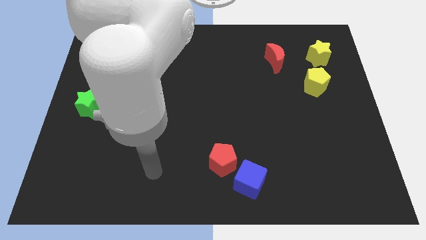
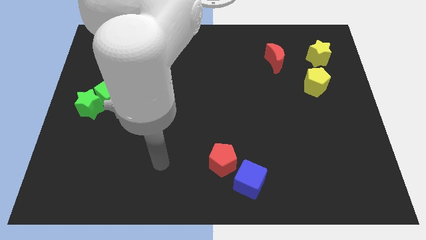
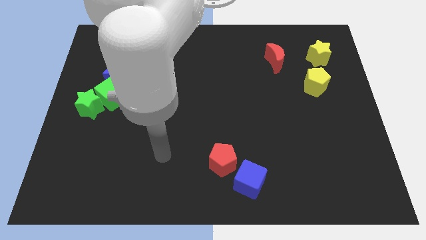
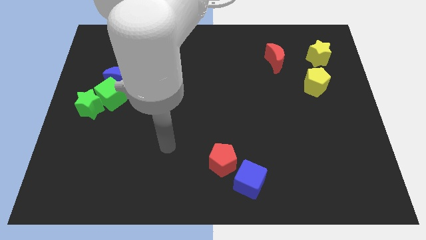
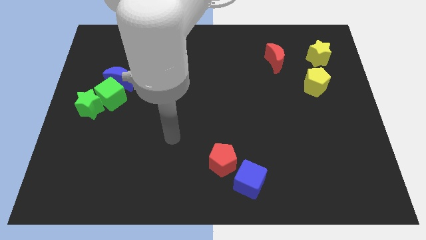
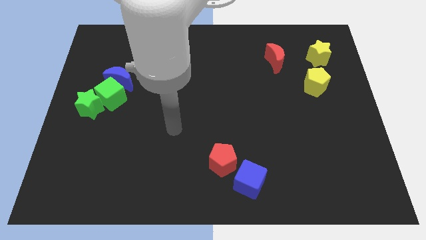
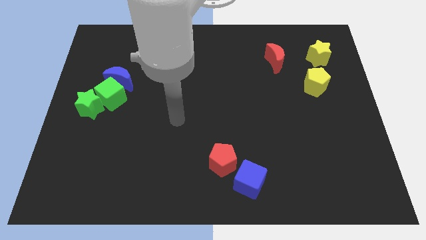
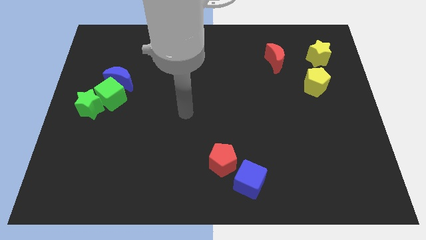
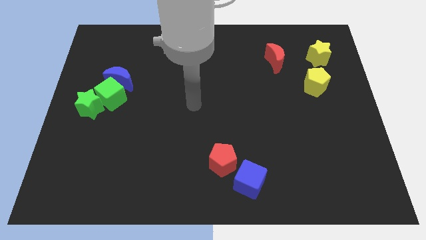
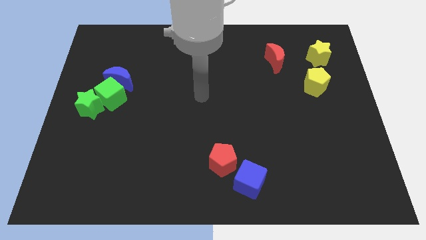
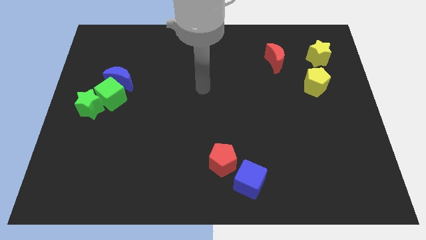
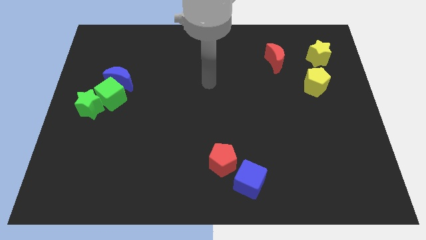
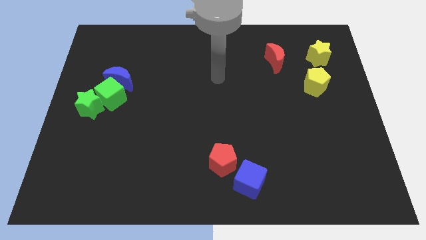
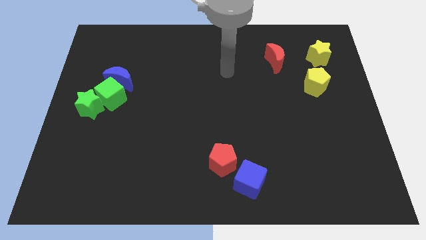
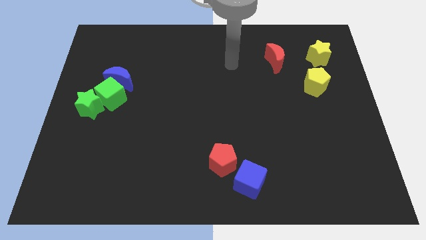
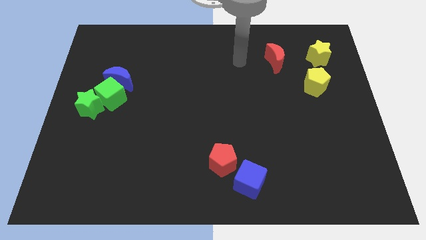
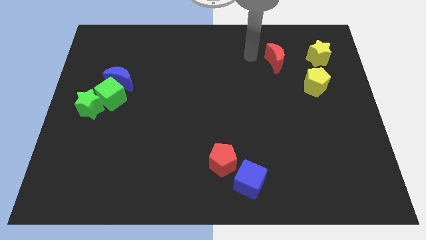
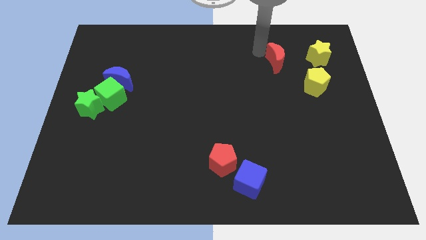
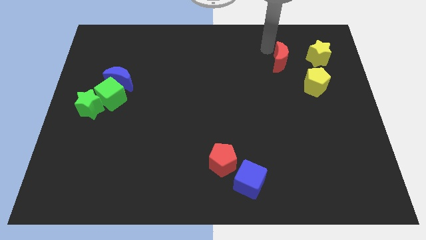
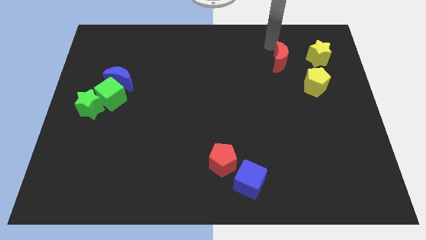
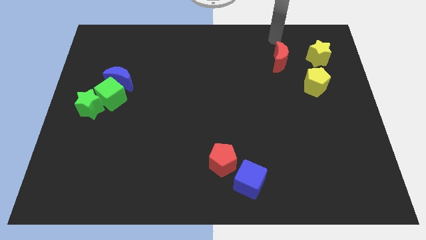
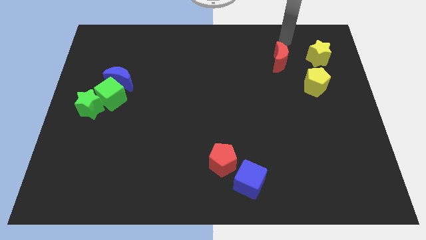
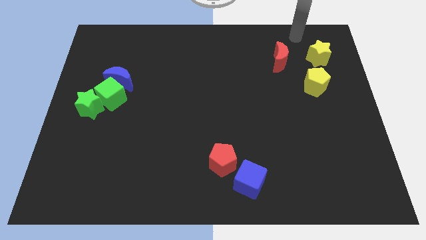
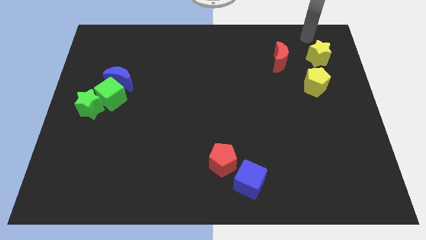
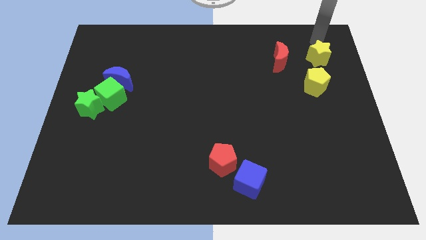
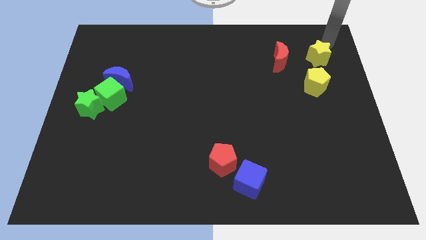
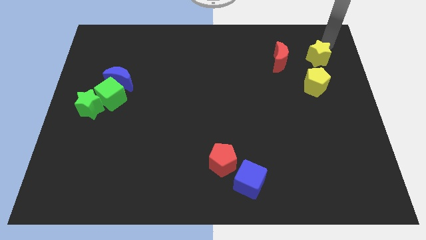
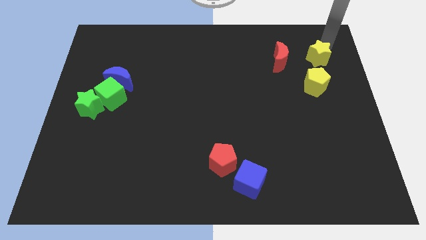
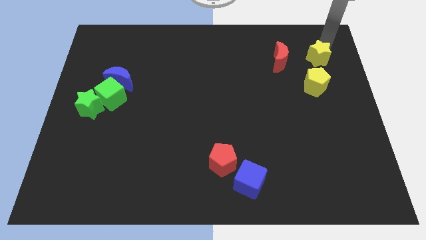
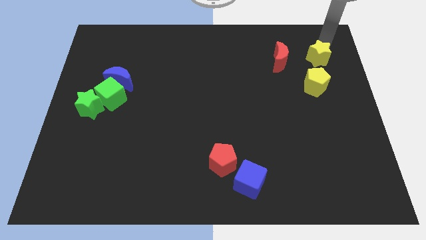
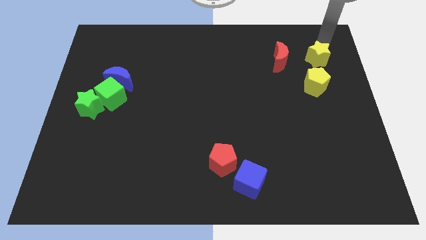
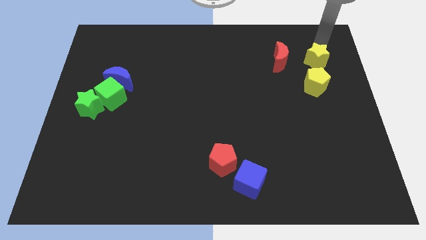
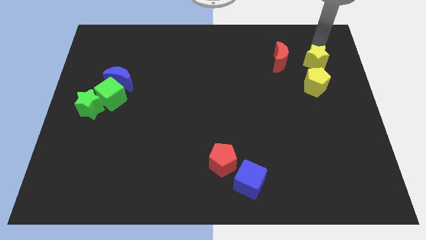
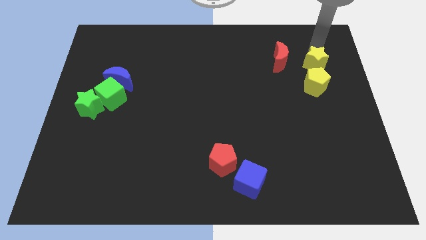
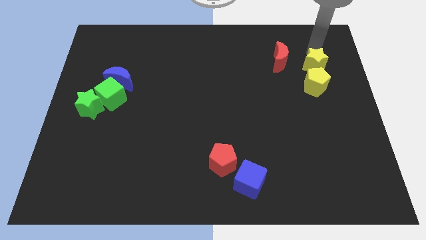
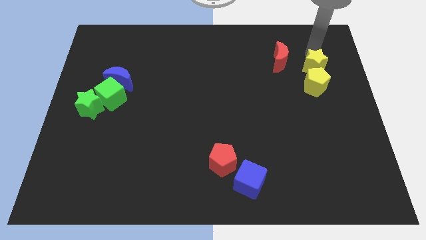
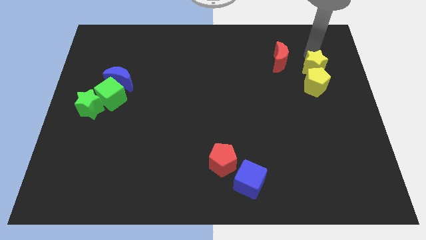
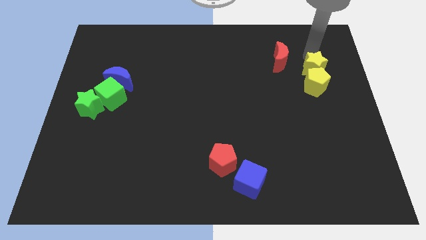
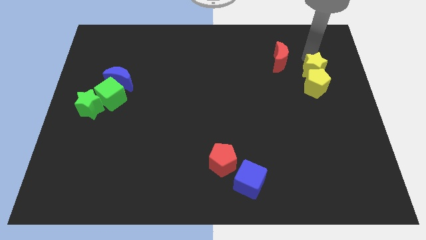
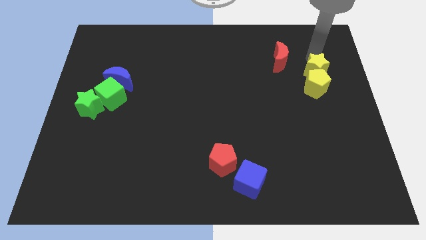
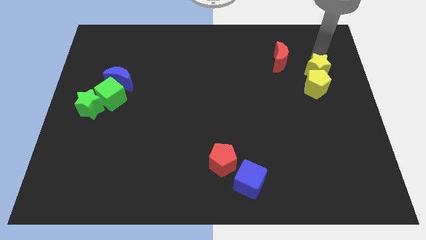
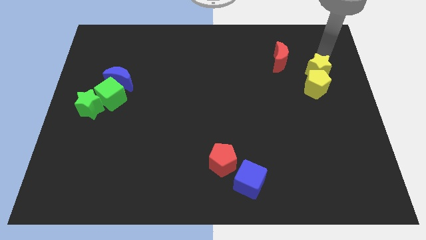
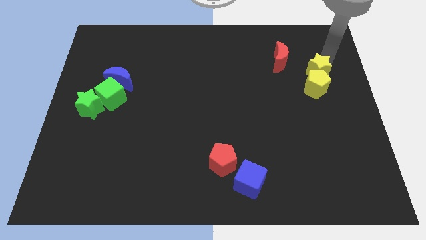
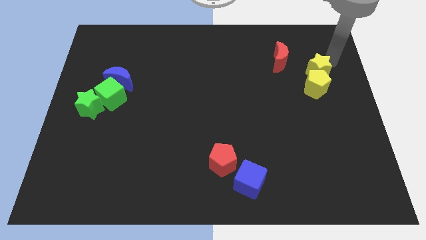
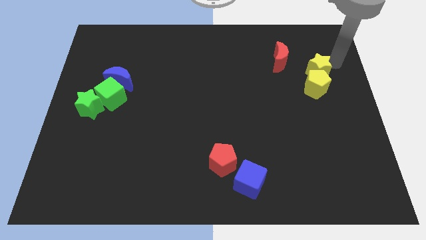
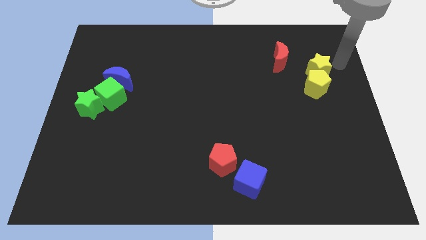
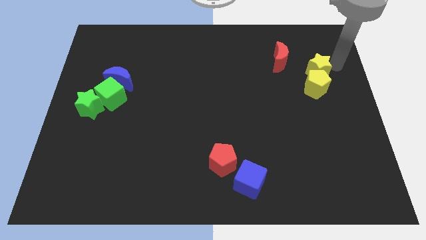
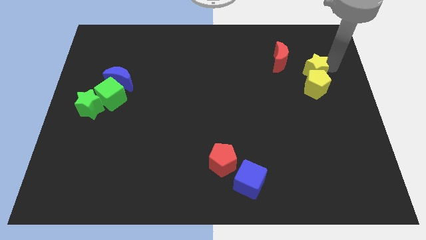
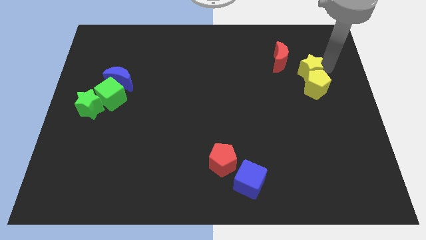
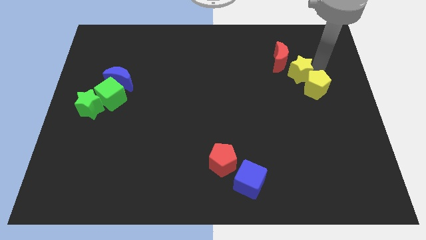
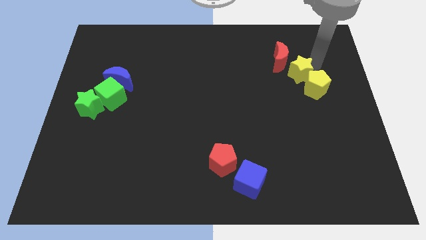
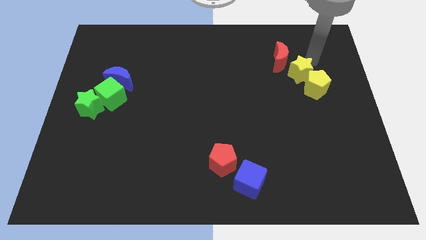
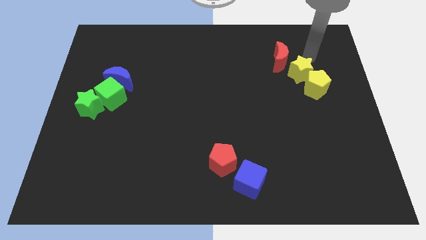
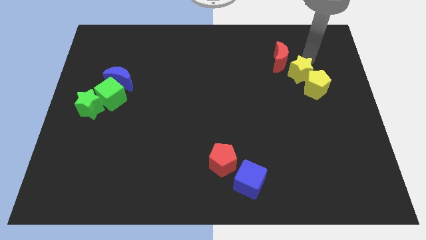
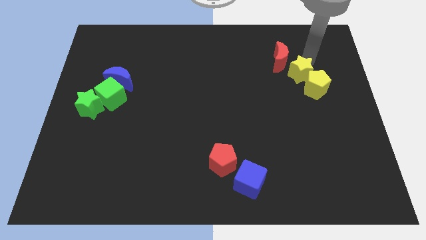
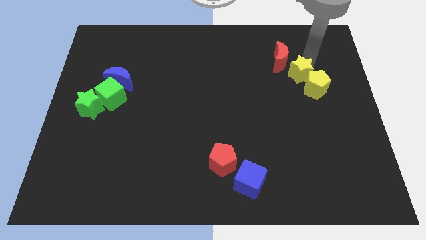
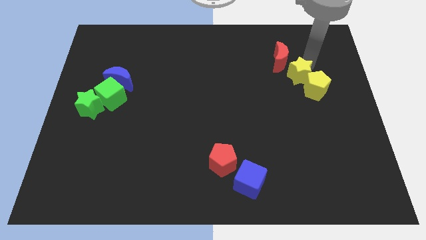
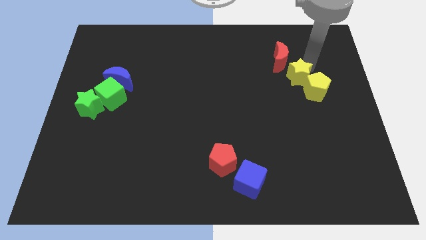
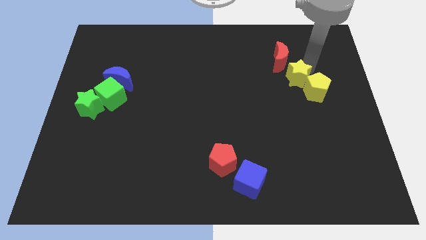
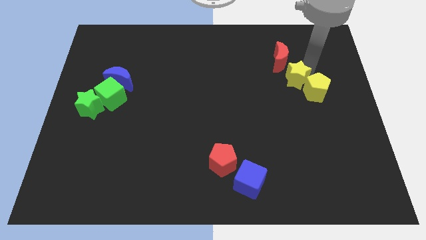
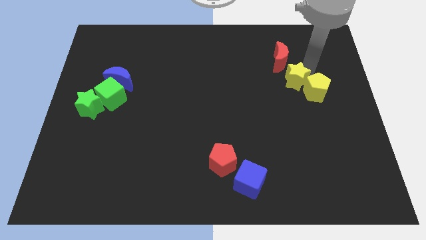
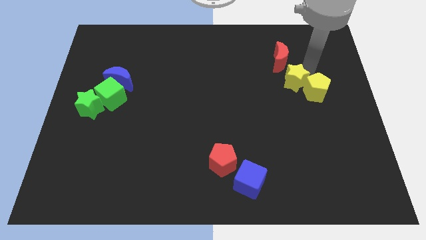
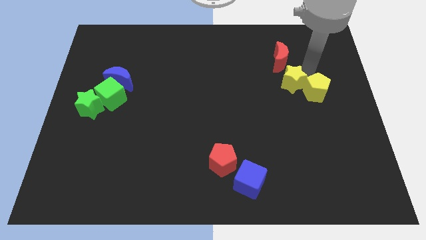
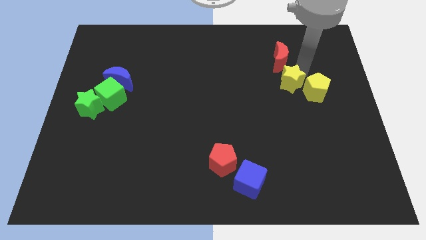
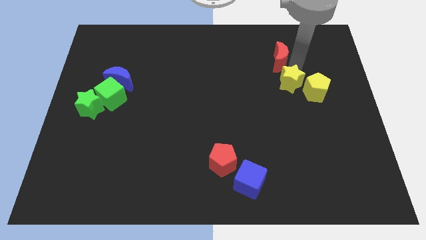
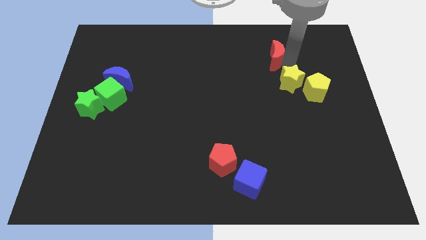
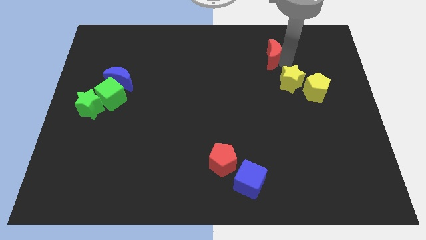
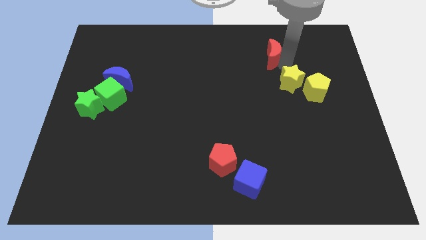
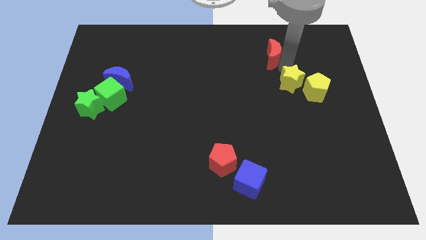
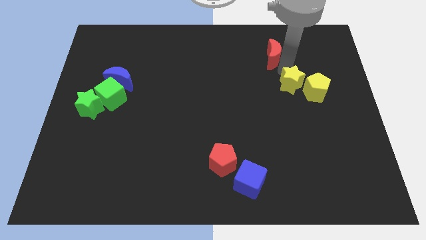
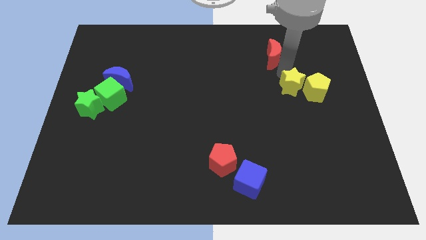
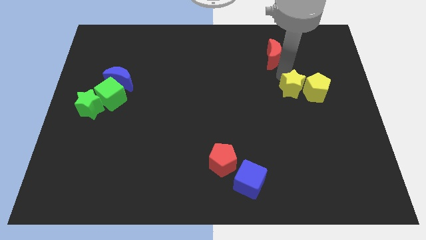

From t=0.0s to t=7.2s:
slide the yellow star to the bottom left side of the yellow pentagon

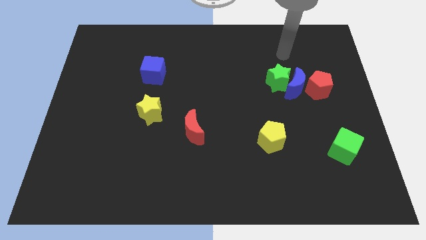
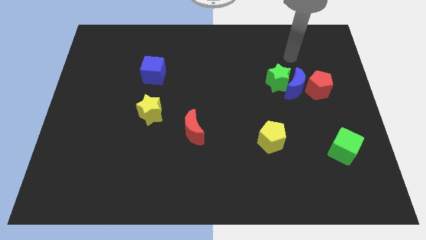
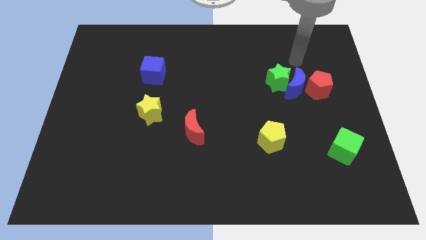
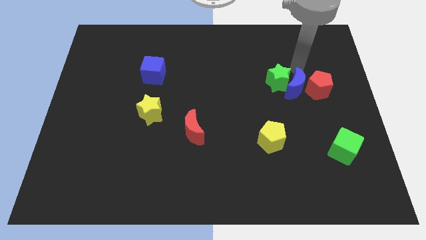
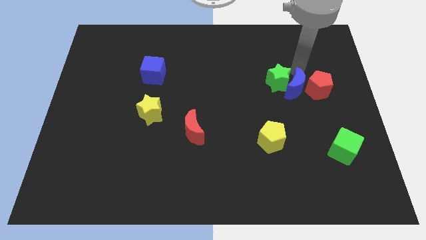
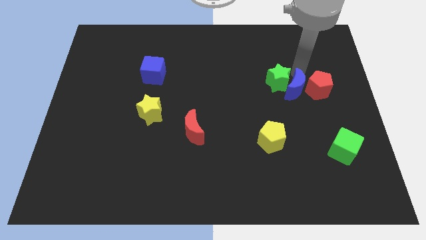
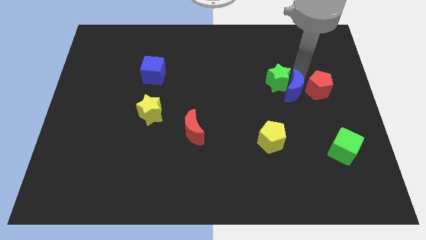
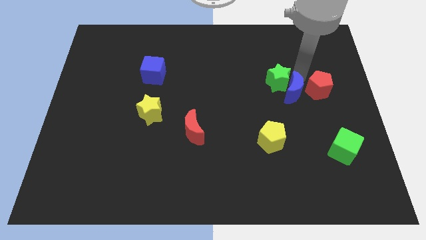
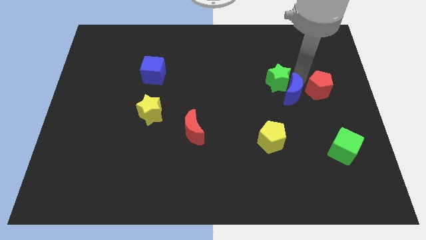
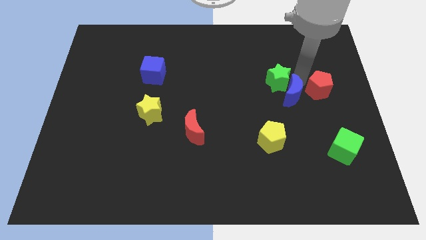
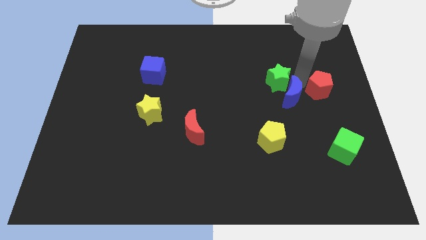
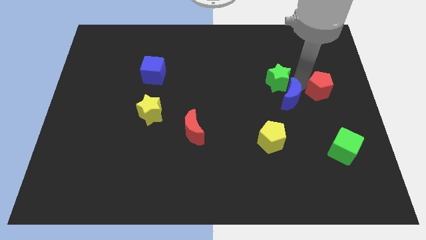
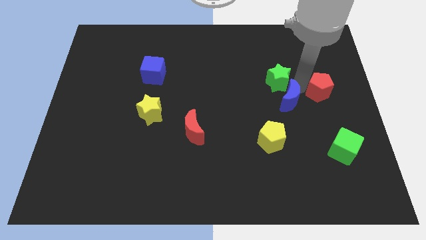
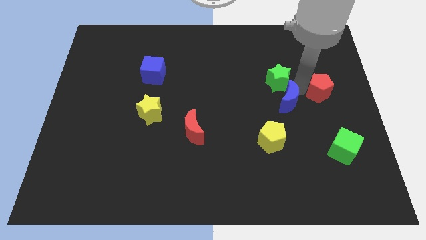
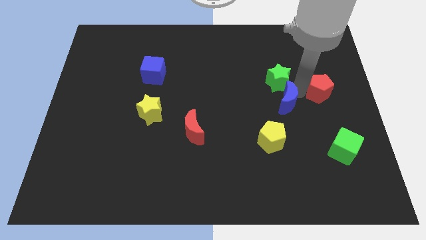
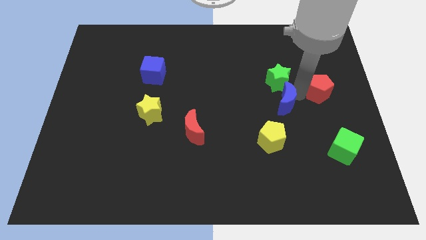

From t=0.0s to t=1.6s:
push the blue moon to the top right side of the yellow pentagon
